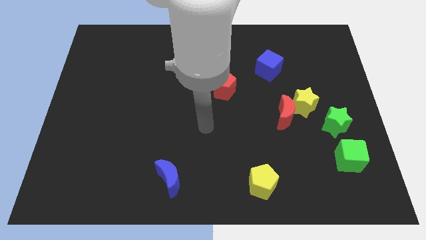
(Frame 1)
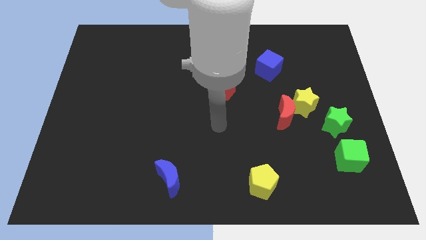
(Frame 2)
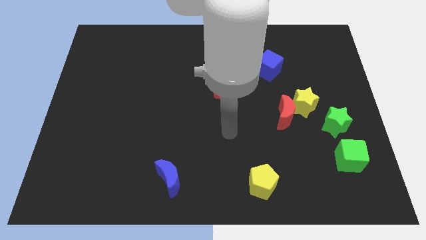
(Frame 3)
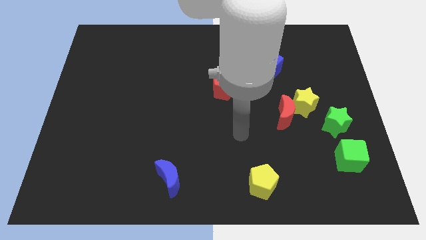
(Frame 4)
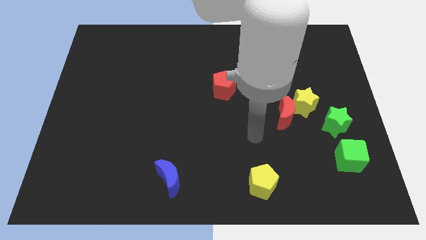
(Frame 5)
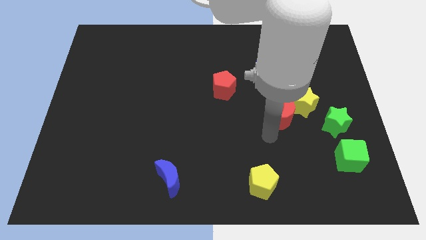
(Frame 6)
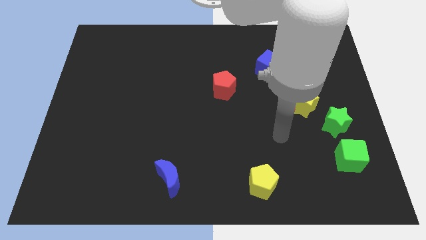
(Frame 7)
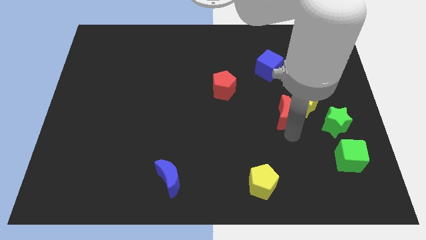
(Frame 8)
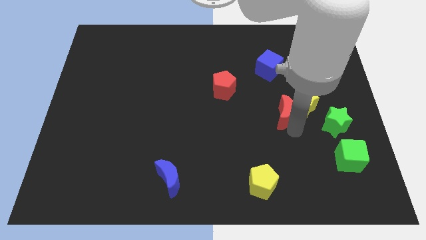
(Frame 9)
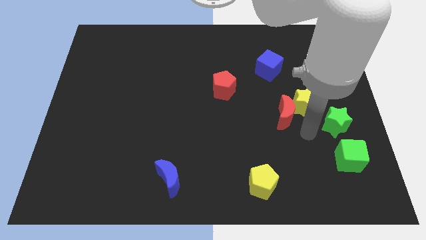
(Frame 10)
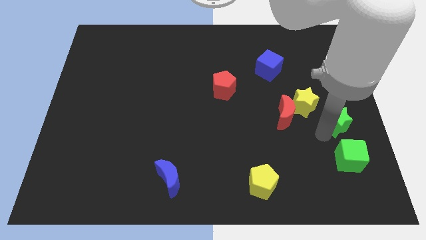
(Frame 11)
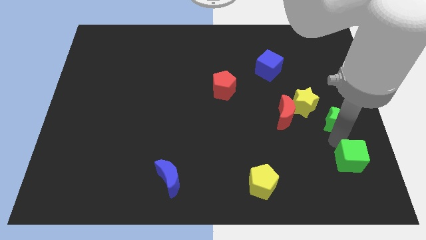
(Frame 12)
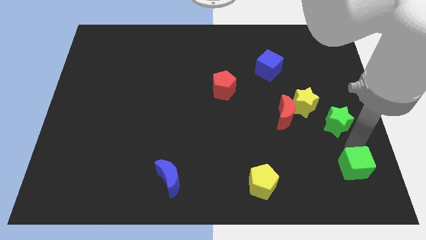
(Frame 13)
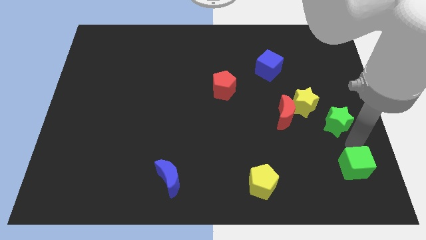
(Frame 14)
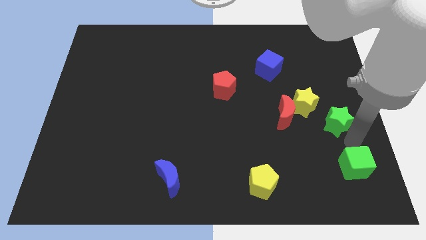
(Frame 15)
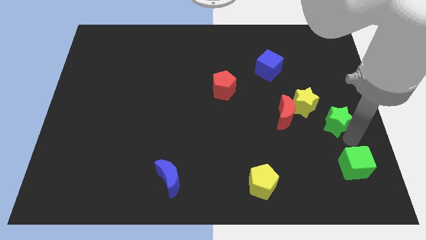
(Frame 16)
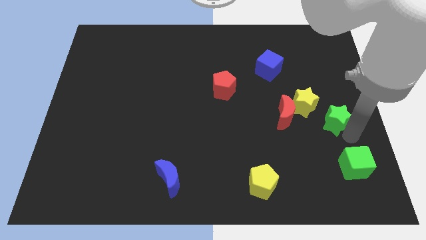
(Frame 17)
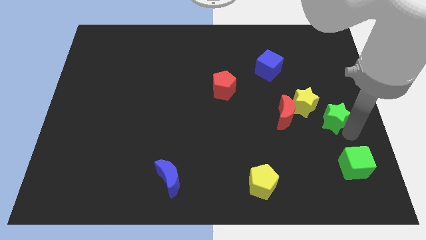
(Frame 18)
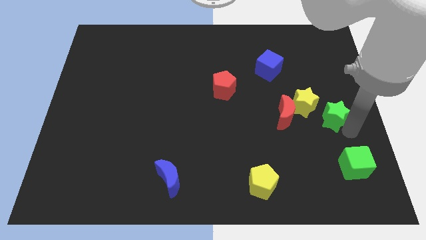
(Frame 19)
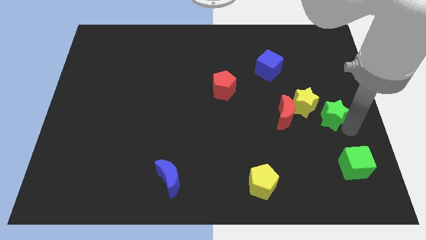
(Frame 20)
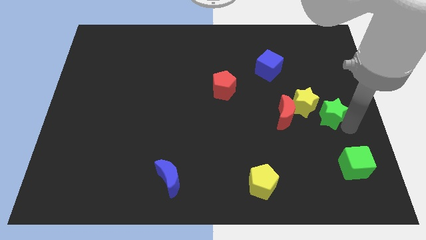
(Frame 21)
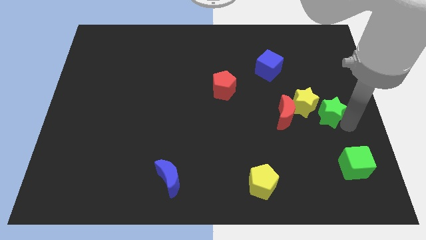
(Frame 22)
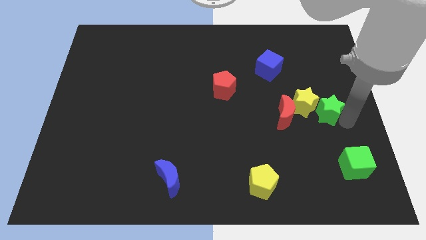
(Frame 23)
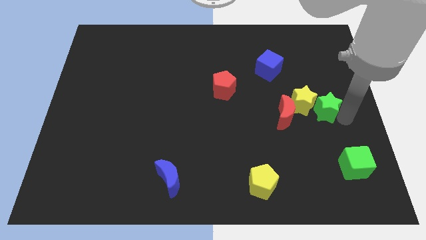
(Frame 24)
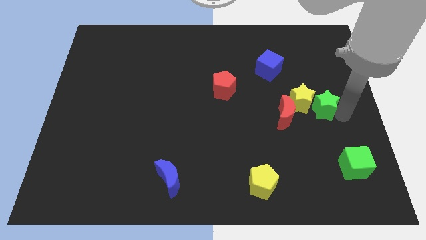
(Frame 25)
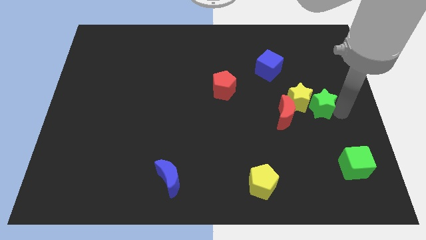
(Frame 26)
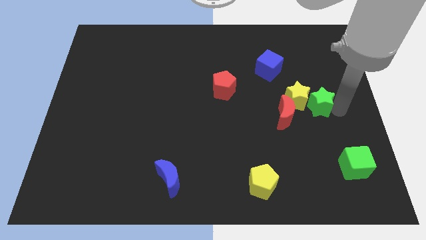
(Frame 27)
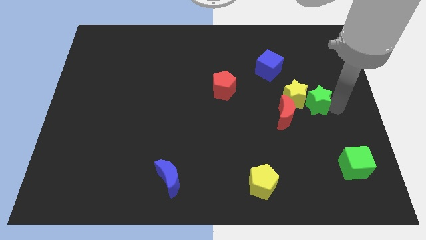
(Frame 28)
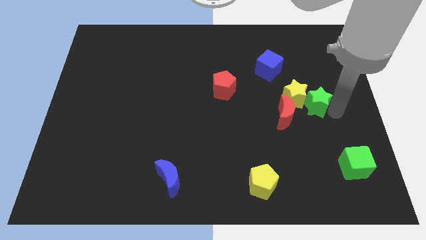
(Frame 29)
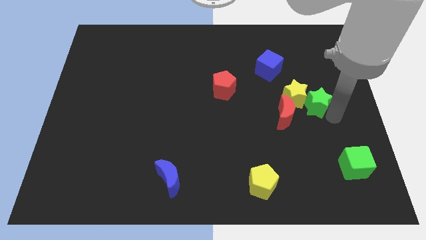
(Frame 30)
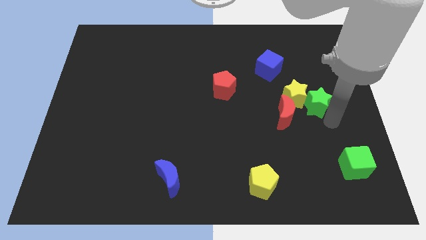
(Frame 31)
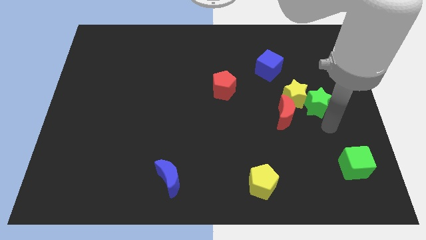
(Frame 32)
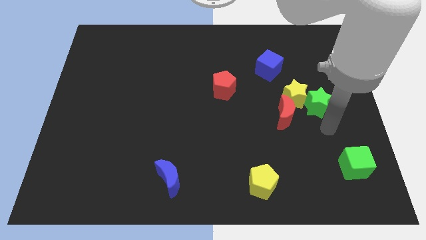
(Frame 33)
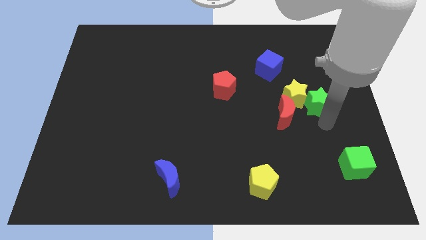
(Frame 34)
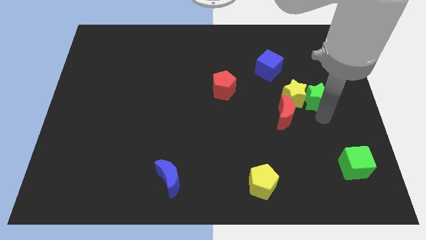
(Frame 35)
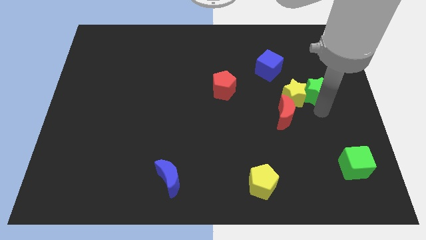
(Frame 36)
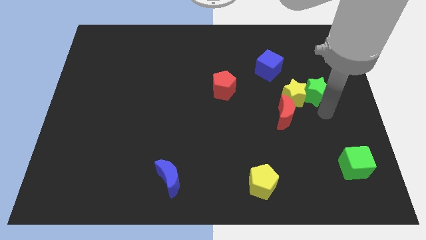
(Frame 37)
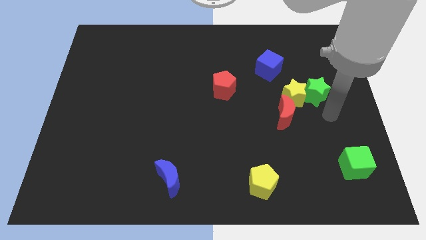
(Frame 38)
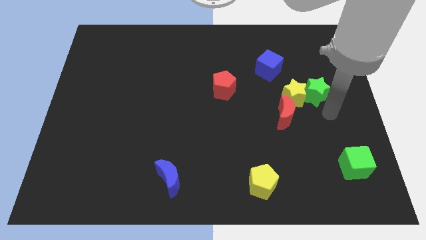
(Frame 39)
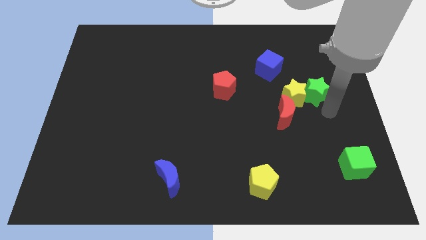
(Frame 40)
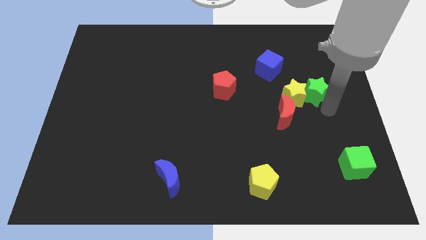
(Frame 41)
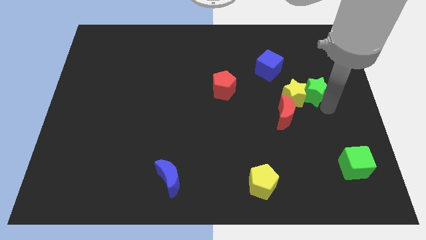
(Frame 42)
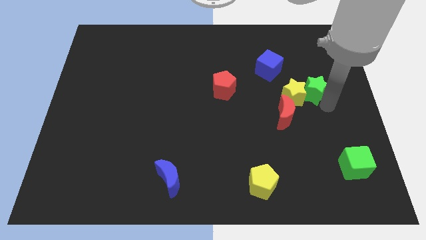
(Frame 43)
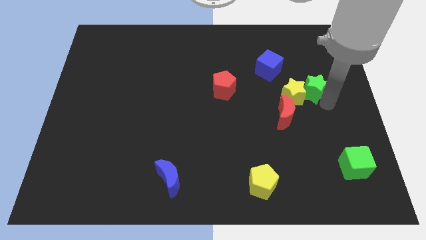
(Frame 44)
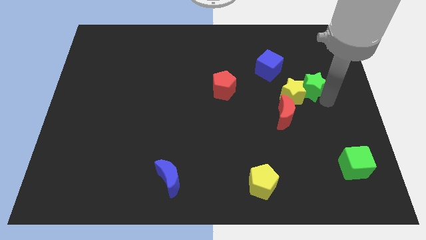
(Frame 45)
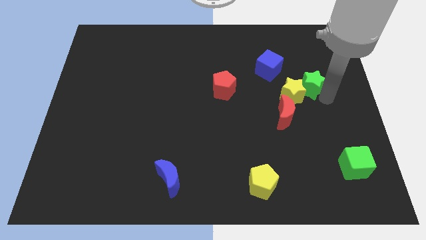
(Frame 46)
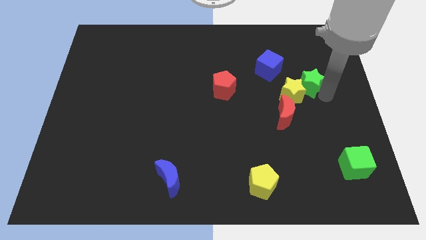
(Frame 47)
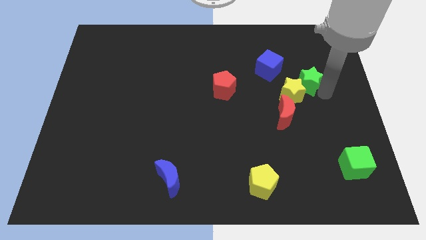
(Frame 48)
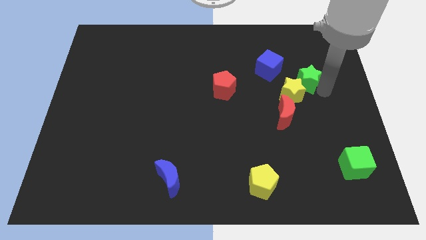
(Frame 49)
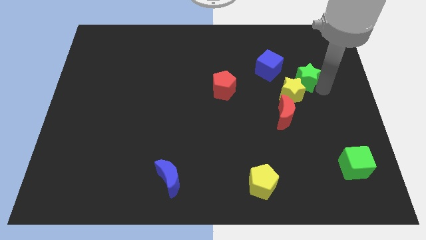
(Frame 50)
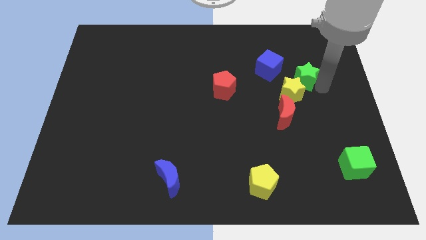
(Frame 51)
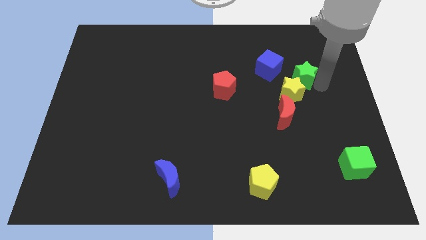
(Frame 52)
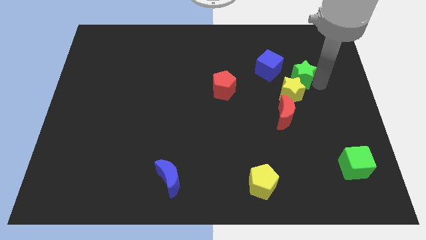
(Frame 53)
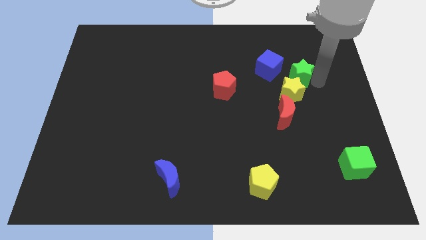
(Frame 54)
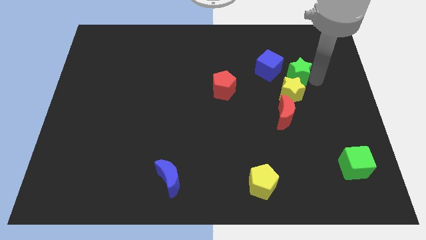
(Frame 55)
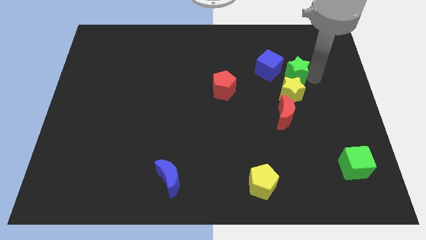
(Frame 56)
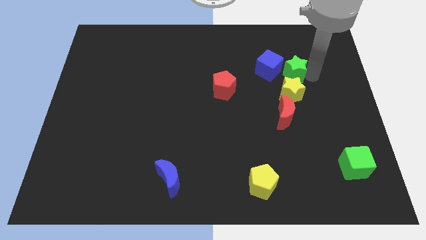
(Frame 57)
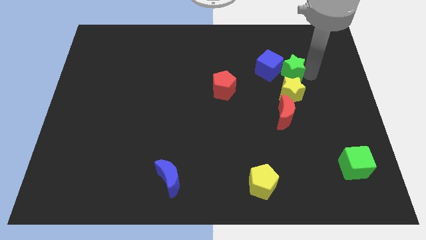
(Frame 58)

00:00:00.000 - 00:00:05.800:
put the green star to the blue cube

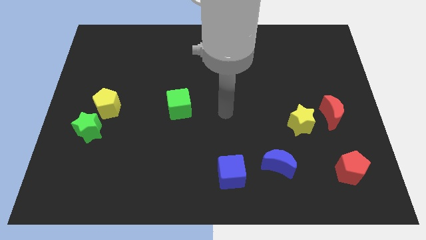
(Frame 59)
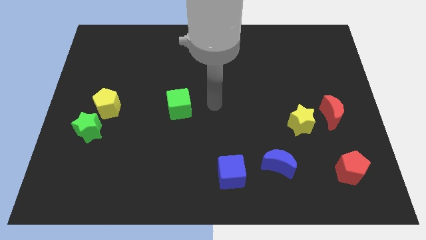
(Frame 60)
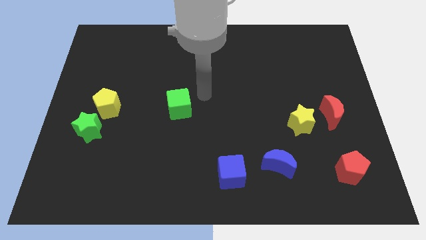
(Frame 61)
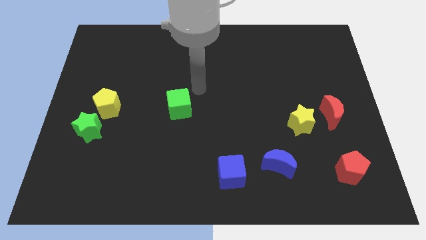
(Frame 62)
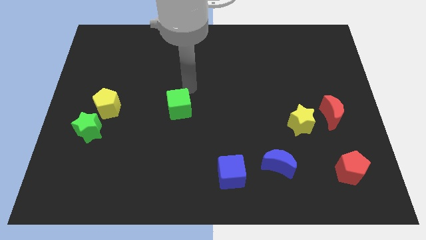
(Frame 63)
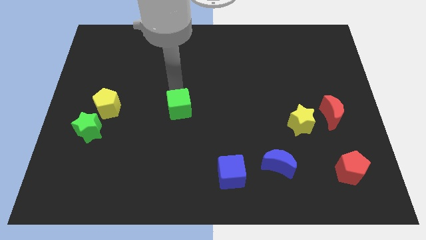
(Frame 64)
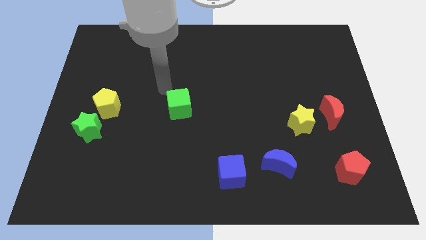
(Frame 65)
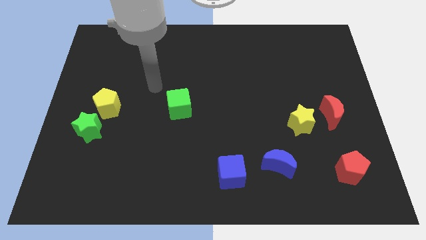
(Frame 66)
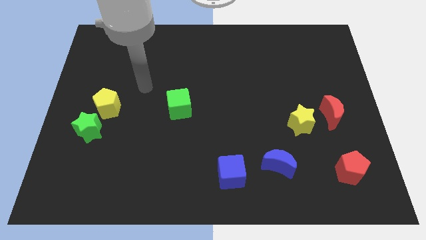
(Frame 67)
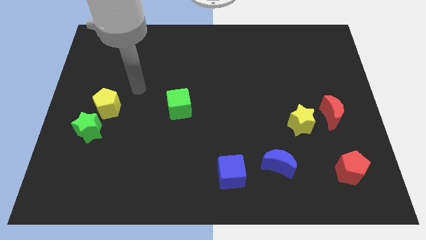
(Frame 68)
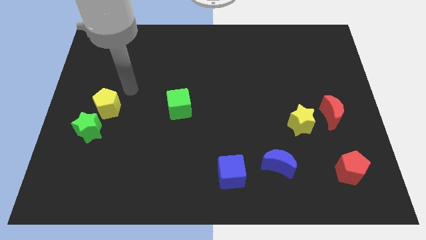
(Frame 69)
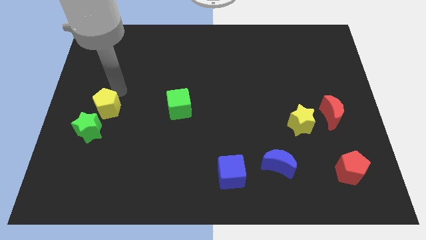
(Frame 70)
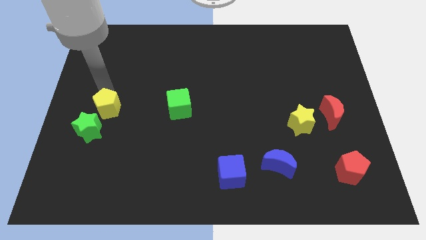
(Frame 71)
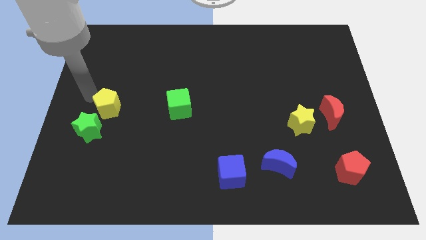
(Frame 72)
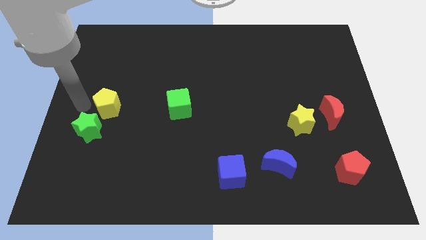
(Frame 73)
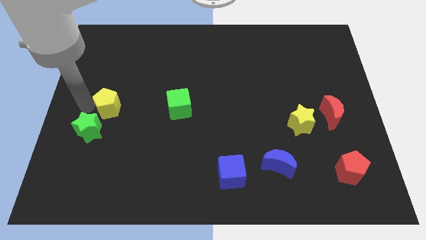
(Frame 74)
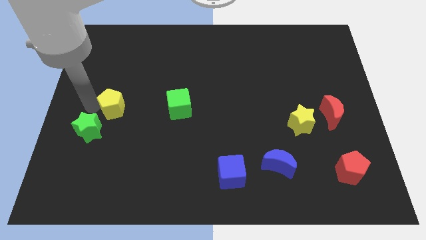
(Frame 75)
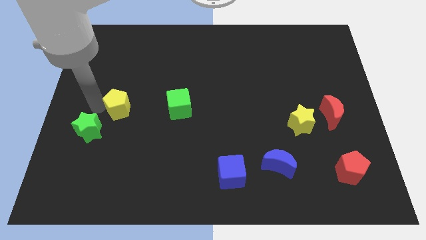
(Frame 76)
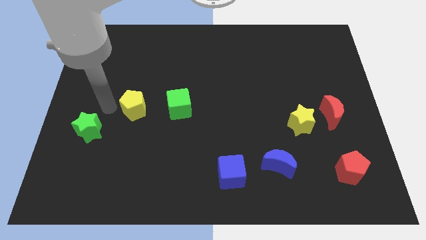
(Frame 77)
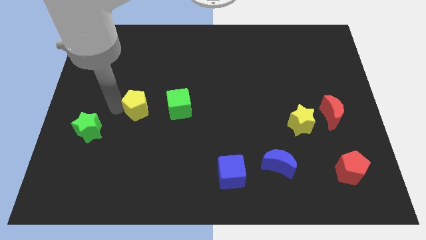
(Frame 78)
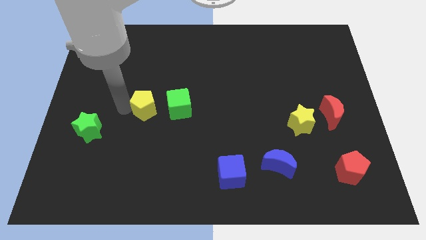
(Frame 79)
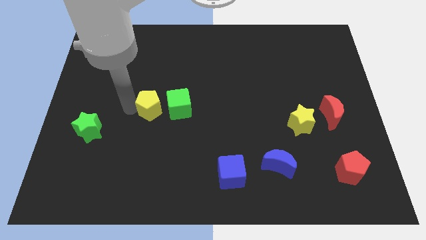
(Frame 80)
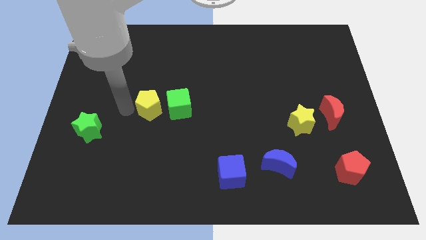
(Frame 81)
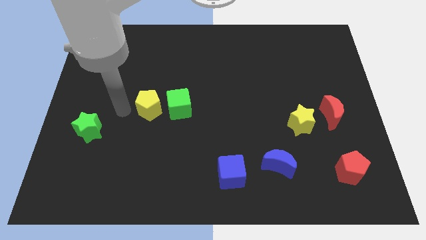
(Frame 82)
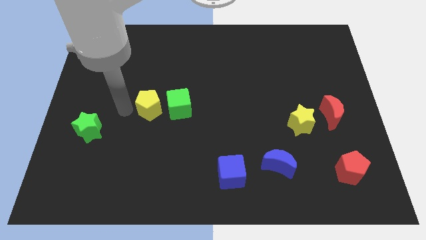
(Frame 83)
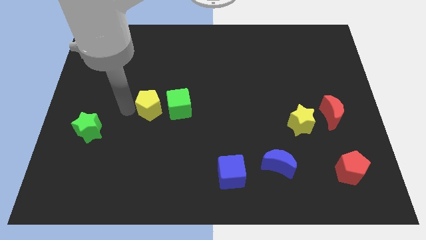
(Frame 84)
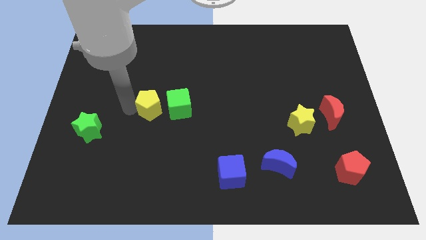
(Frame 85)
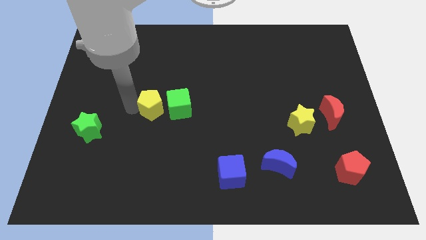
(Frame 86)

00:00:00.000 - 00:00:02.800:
put the yellow pentagon towards the green cube
